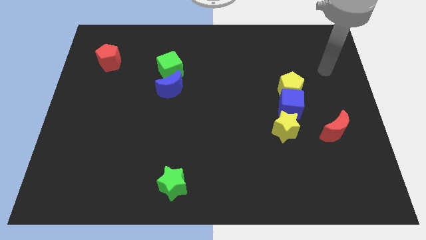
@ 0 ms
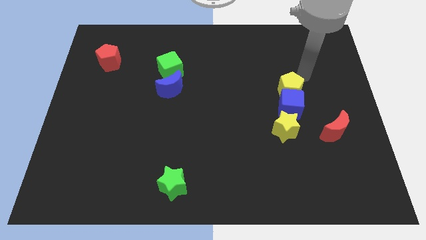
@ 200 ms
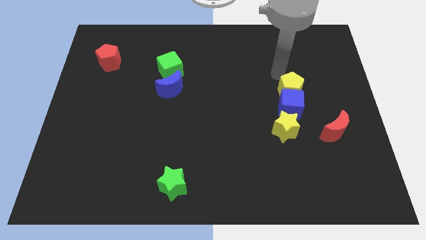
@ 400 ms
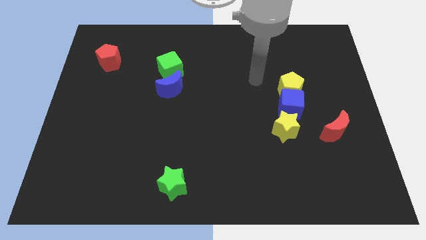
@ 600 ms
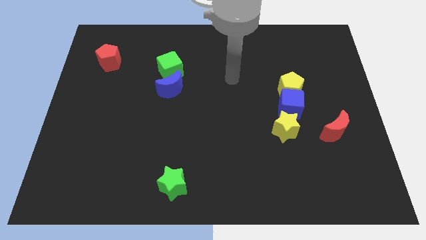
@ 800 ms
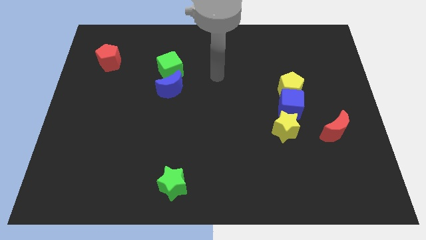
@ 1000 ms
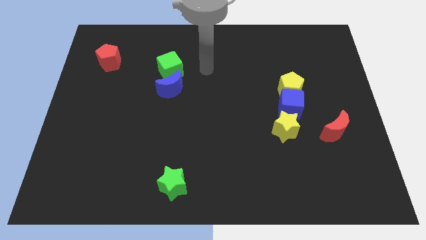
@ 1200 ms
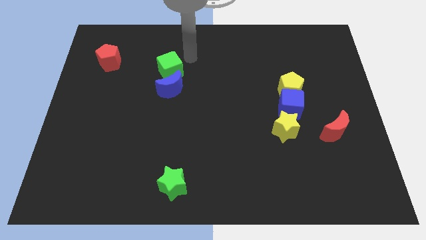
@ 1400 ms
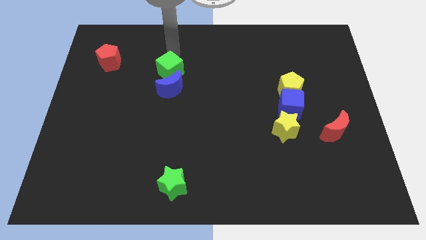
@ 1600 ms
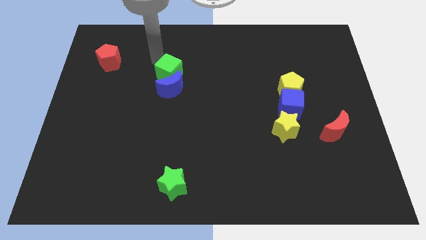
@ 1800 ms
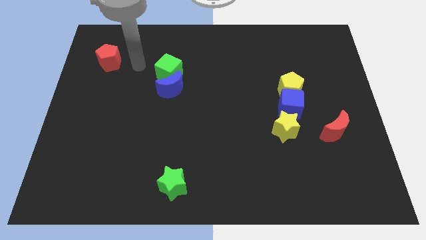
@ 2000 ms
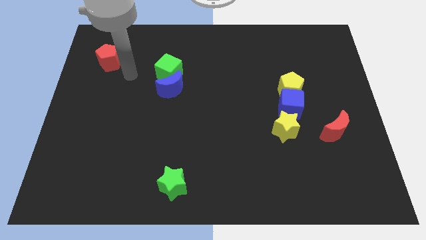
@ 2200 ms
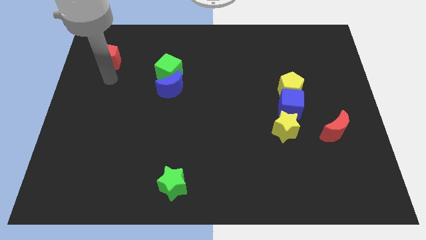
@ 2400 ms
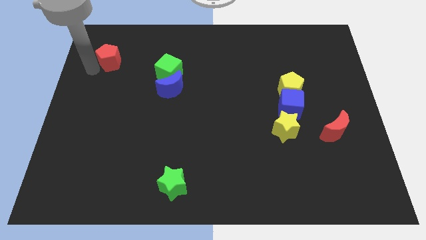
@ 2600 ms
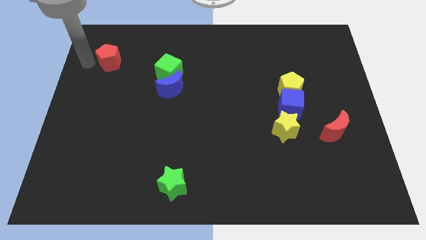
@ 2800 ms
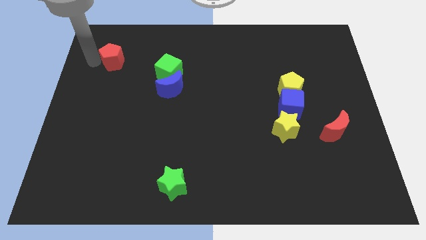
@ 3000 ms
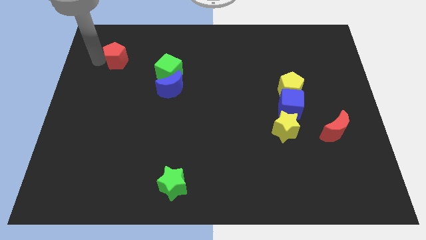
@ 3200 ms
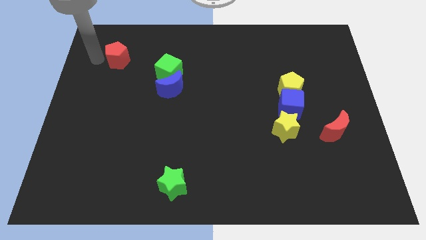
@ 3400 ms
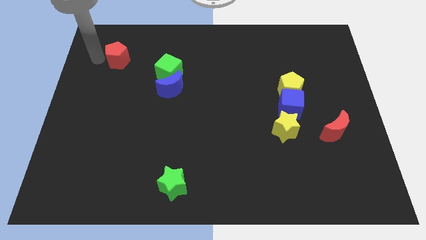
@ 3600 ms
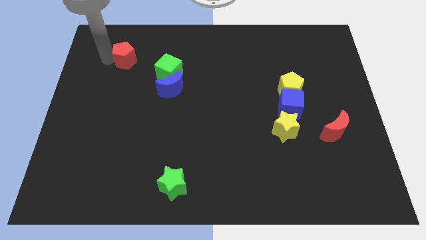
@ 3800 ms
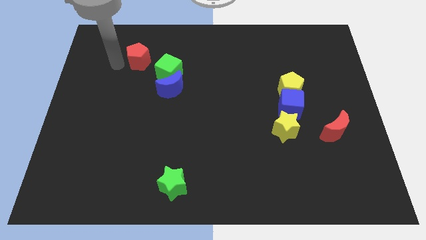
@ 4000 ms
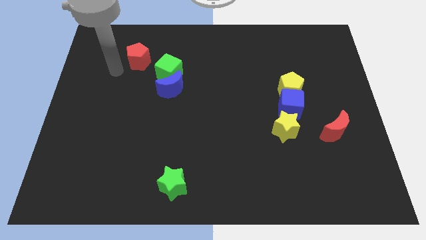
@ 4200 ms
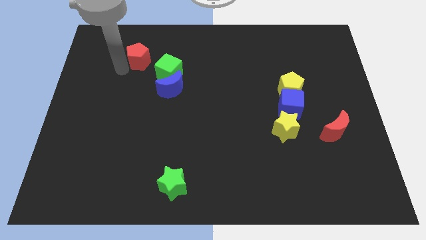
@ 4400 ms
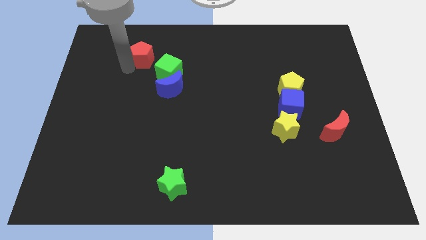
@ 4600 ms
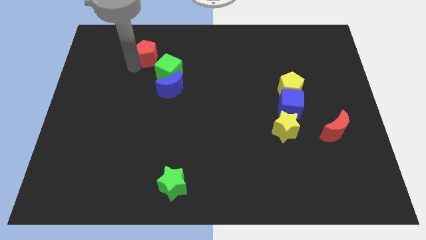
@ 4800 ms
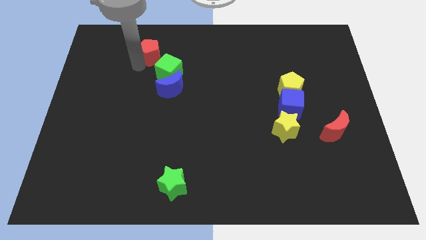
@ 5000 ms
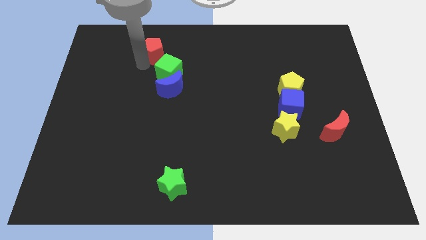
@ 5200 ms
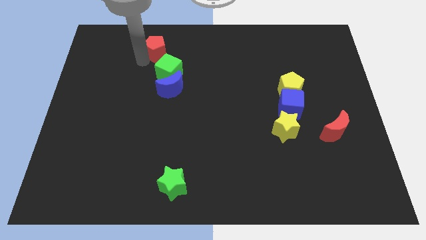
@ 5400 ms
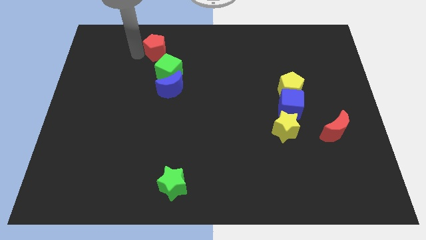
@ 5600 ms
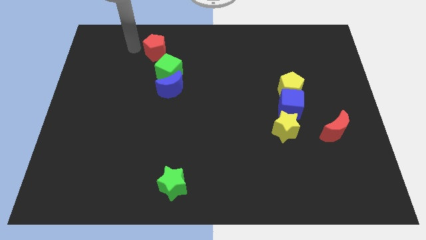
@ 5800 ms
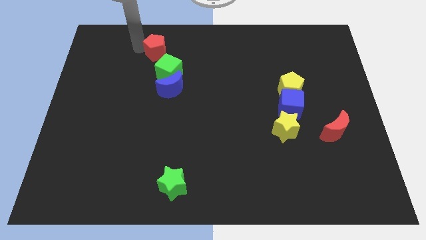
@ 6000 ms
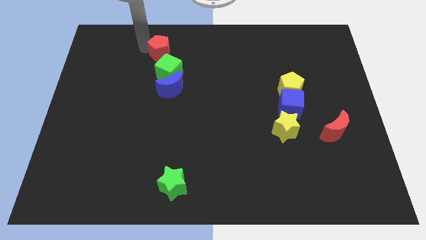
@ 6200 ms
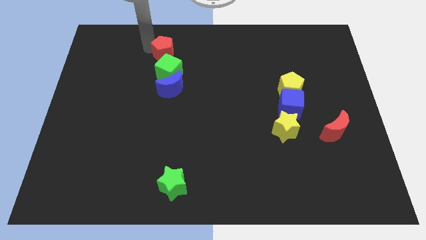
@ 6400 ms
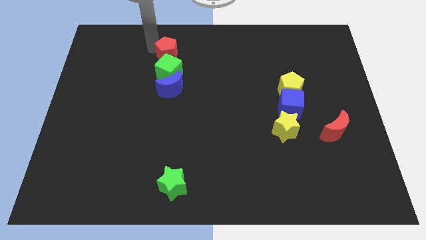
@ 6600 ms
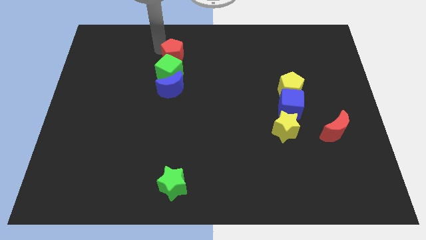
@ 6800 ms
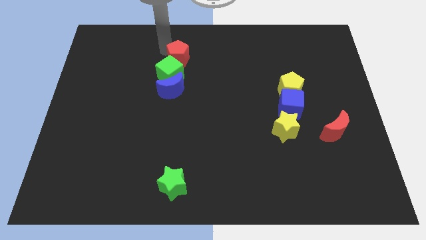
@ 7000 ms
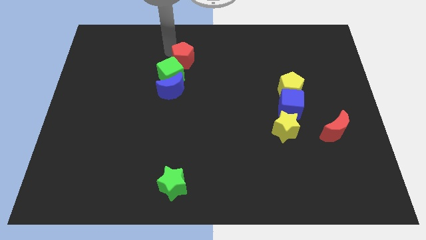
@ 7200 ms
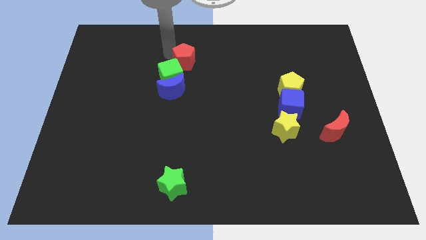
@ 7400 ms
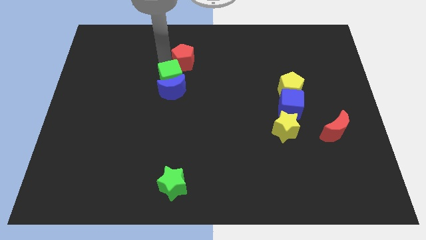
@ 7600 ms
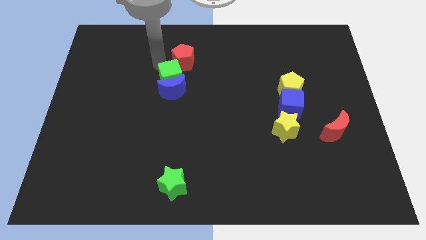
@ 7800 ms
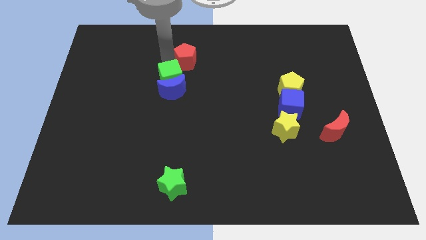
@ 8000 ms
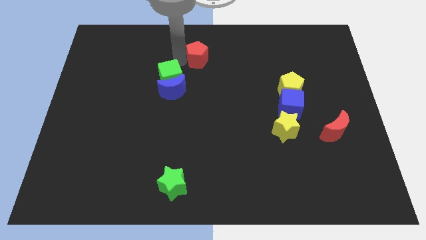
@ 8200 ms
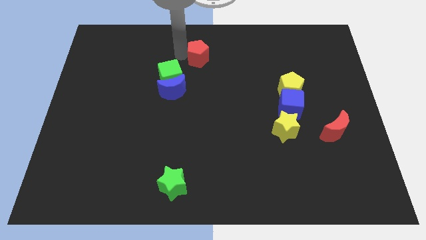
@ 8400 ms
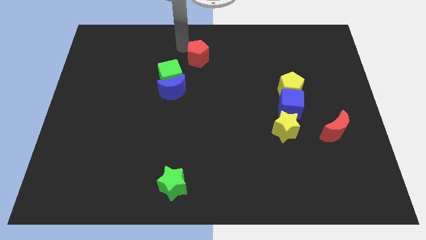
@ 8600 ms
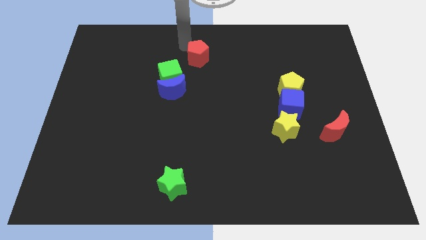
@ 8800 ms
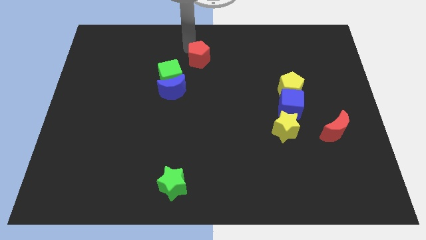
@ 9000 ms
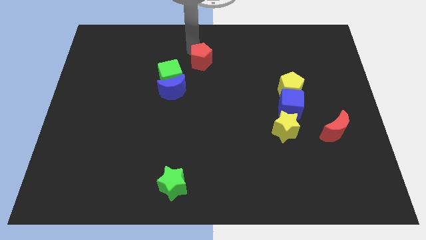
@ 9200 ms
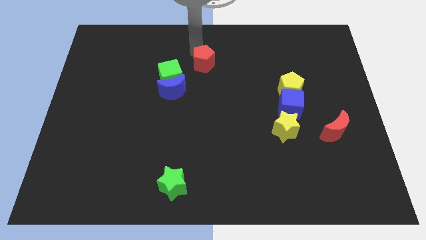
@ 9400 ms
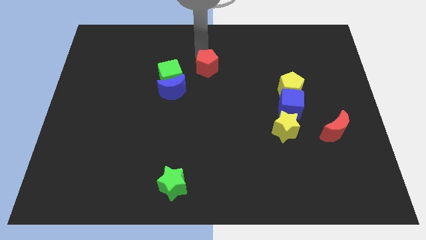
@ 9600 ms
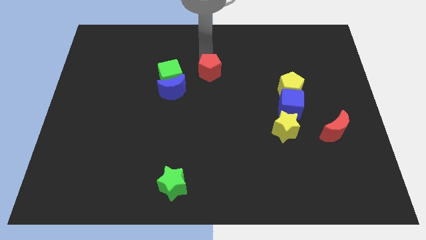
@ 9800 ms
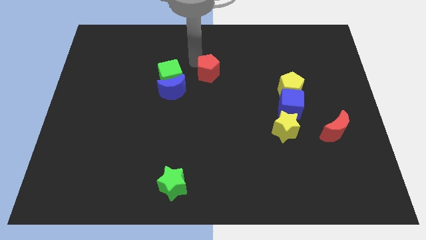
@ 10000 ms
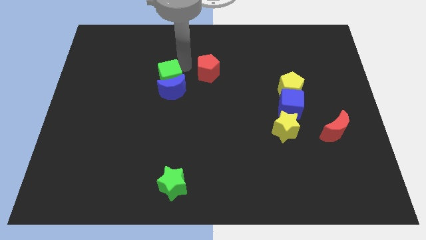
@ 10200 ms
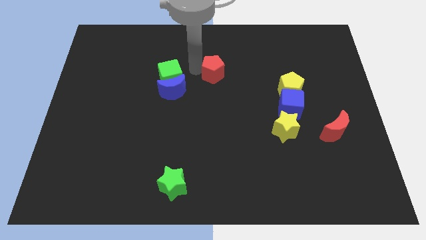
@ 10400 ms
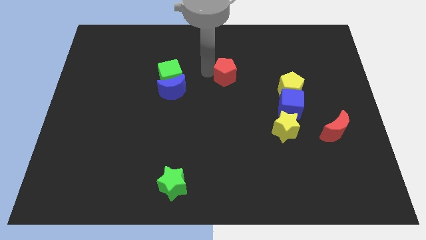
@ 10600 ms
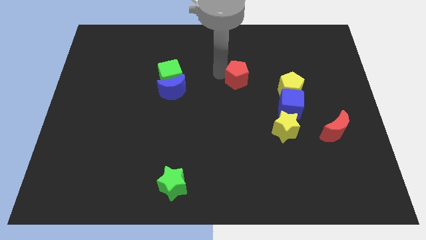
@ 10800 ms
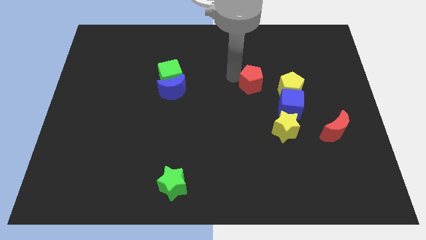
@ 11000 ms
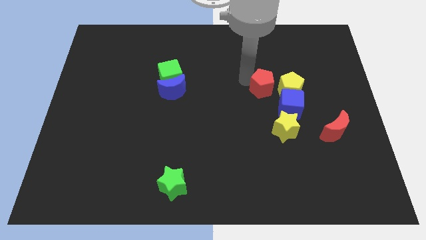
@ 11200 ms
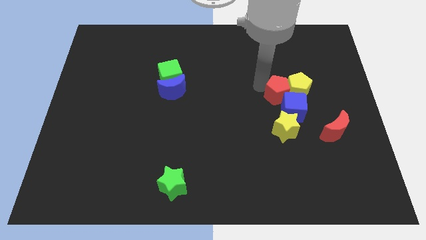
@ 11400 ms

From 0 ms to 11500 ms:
put the red pentagon next to the blue cube

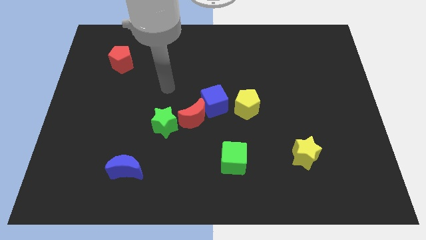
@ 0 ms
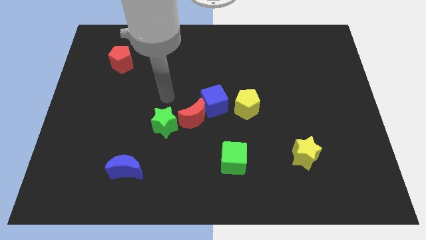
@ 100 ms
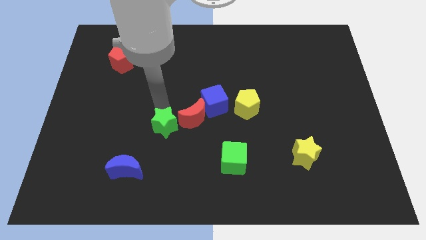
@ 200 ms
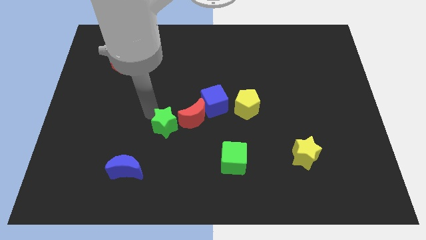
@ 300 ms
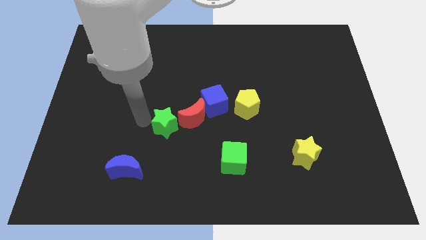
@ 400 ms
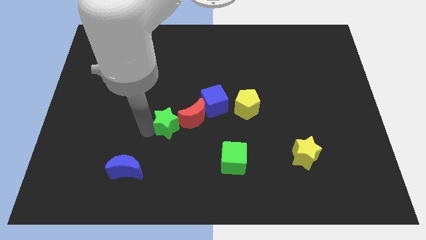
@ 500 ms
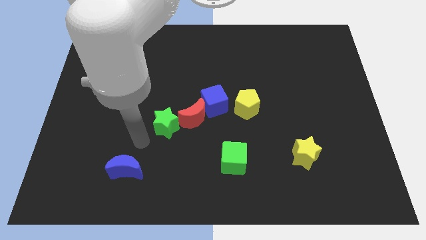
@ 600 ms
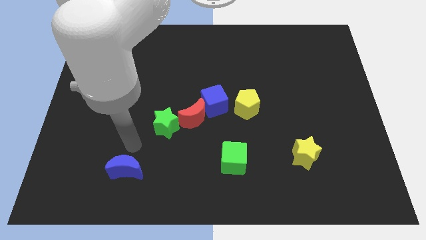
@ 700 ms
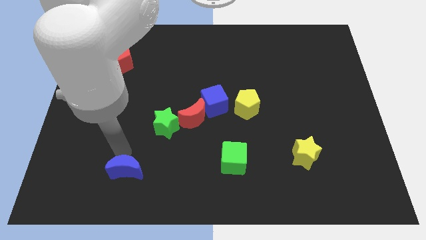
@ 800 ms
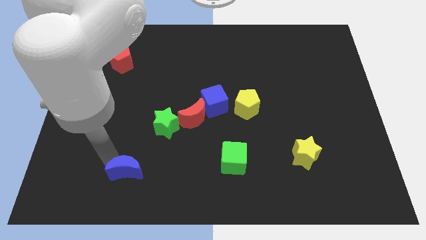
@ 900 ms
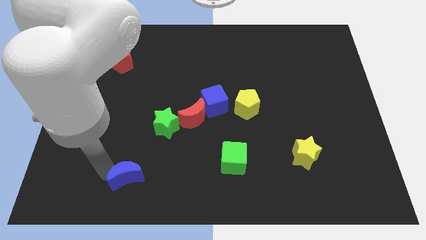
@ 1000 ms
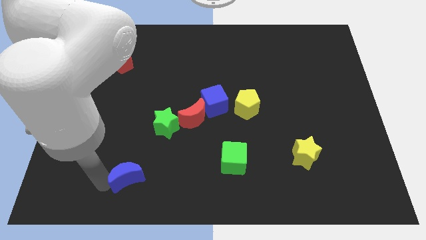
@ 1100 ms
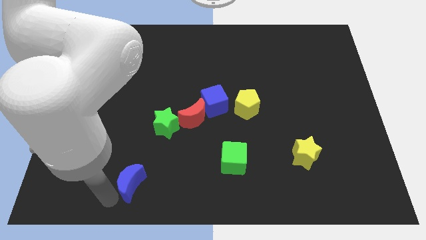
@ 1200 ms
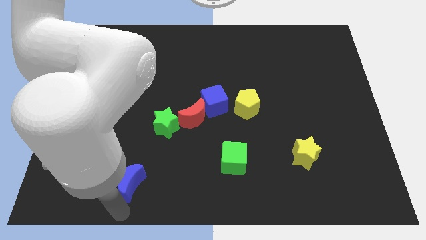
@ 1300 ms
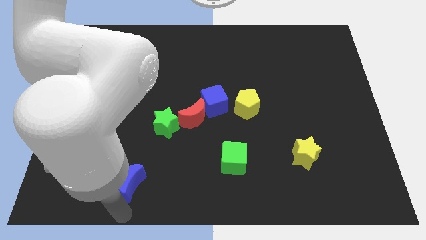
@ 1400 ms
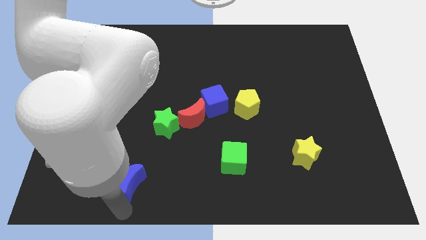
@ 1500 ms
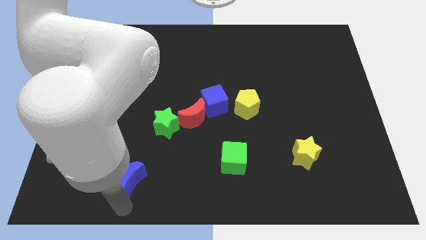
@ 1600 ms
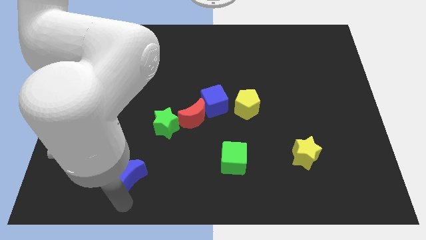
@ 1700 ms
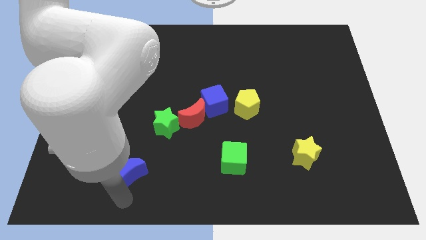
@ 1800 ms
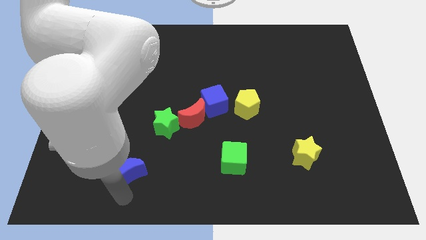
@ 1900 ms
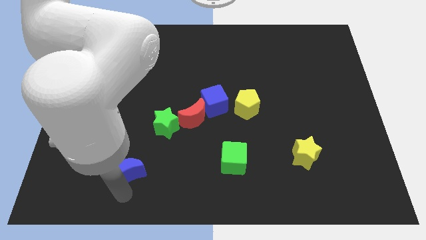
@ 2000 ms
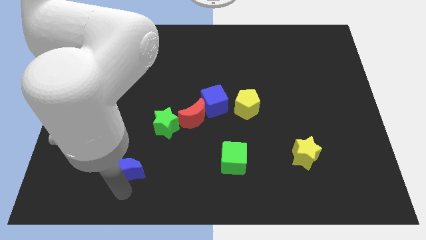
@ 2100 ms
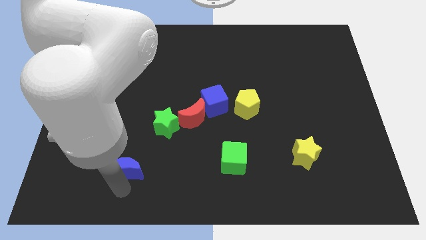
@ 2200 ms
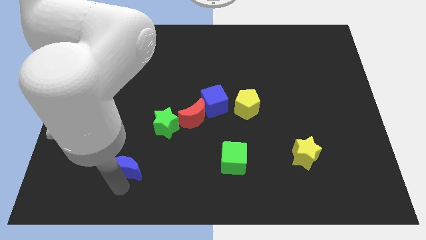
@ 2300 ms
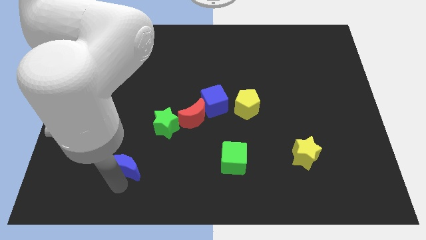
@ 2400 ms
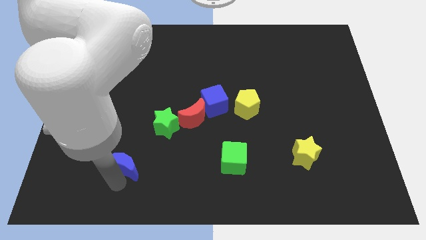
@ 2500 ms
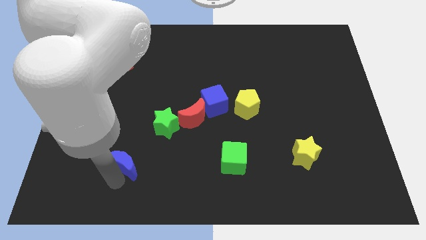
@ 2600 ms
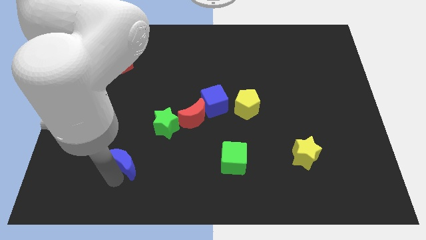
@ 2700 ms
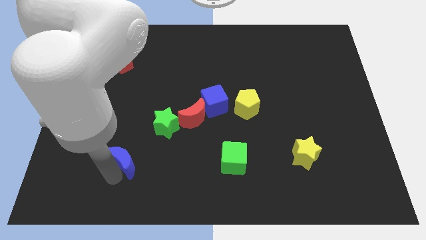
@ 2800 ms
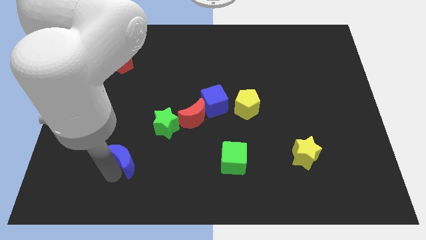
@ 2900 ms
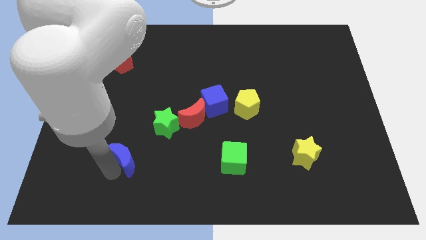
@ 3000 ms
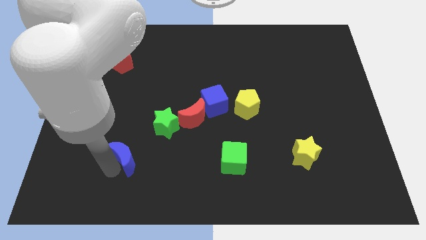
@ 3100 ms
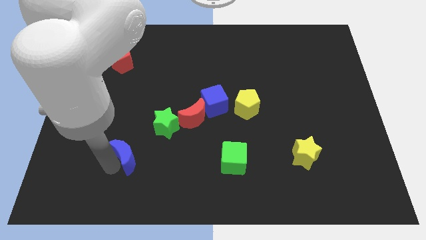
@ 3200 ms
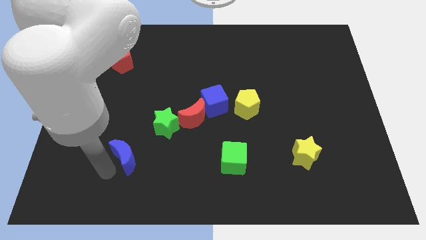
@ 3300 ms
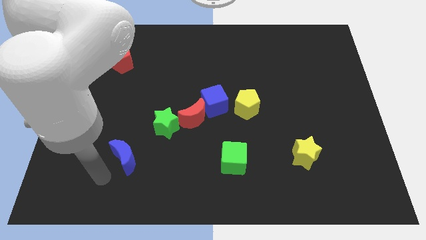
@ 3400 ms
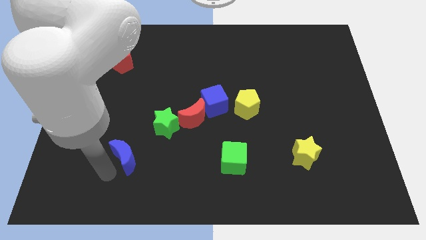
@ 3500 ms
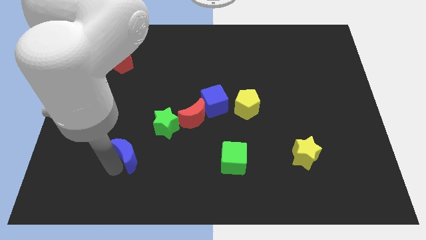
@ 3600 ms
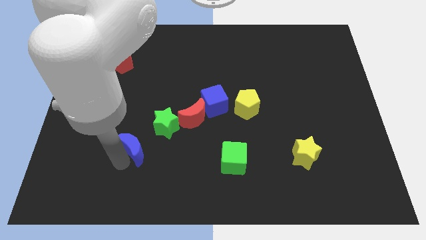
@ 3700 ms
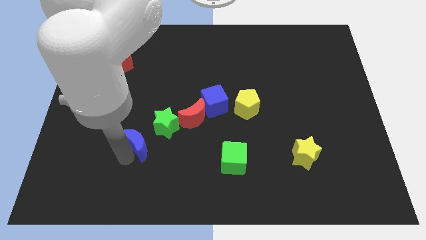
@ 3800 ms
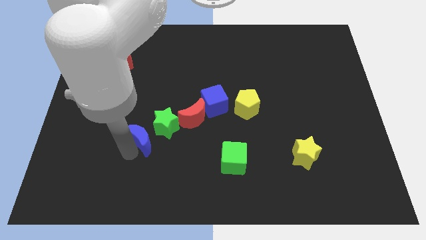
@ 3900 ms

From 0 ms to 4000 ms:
push the blue moon to the green star
